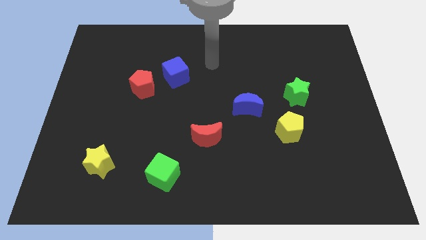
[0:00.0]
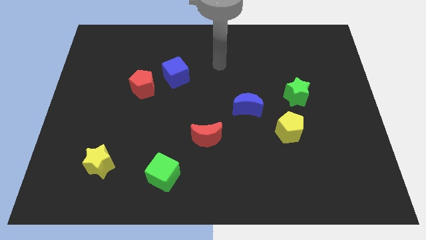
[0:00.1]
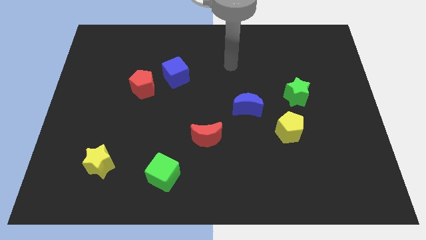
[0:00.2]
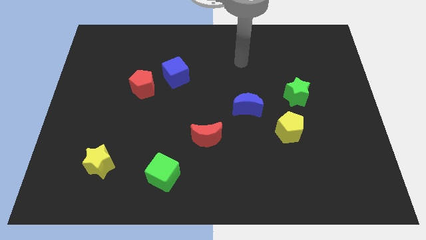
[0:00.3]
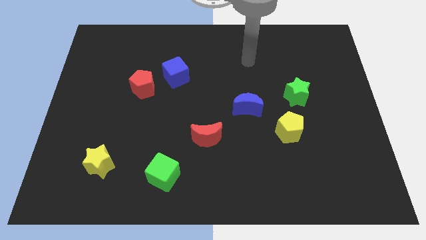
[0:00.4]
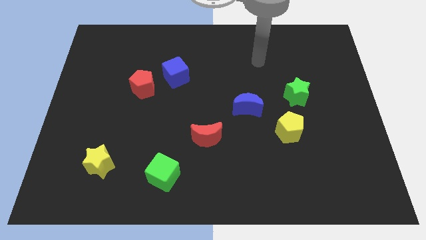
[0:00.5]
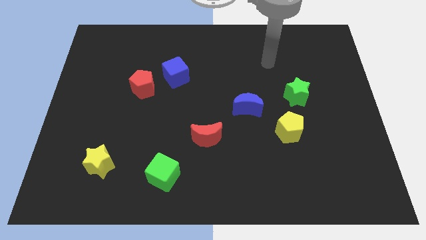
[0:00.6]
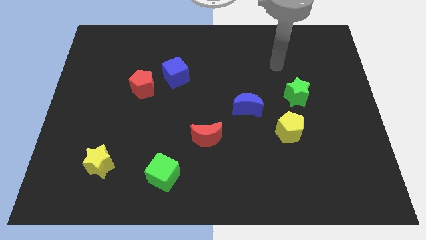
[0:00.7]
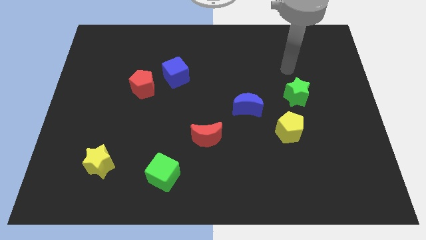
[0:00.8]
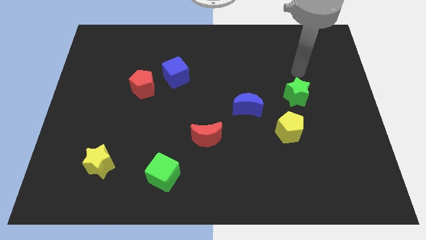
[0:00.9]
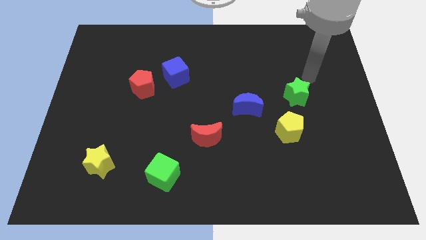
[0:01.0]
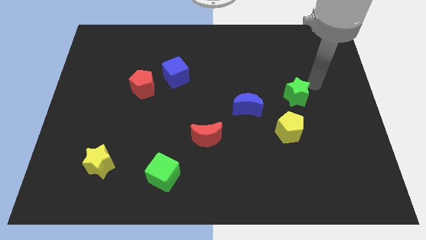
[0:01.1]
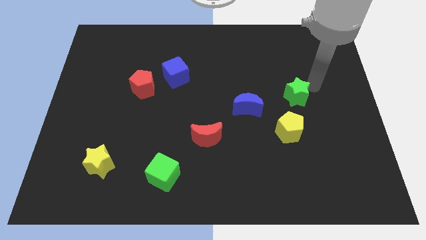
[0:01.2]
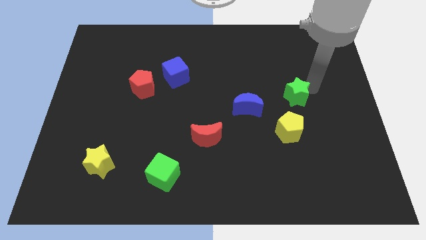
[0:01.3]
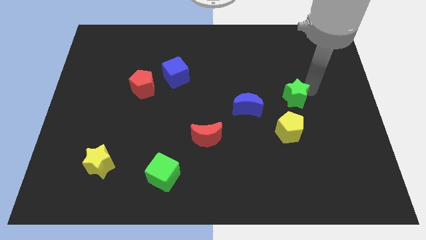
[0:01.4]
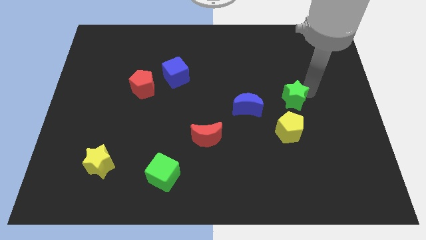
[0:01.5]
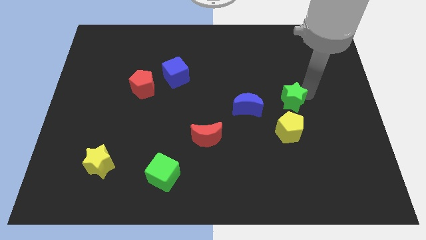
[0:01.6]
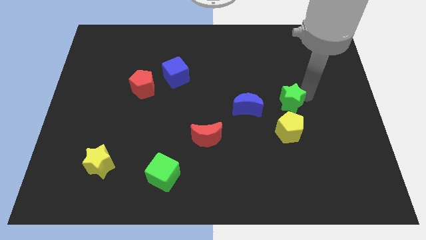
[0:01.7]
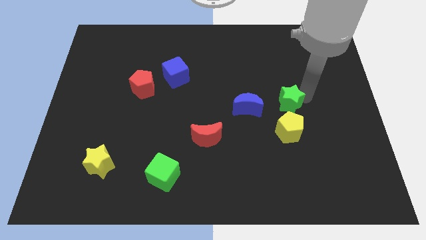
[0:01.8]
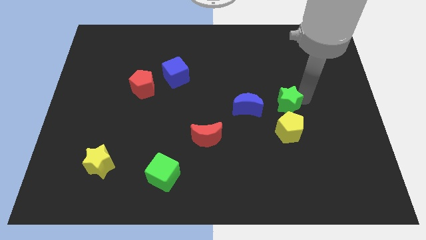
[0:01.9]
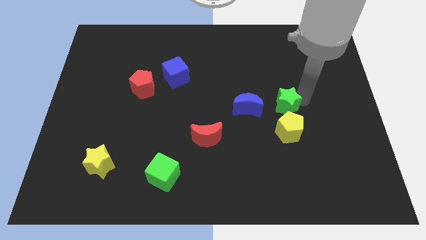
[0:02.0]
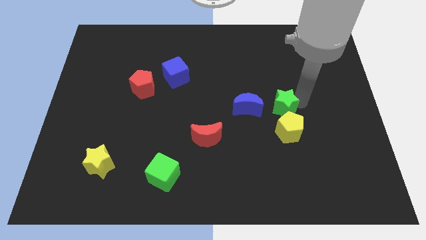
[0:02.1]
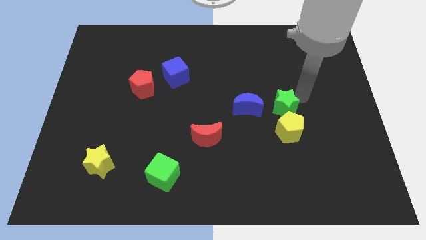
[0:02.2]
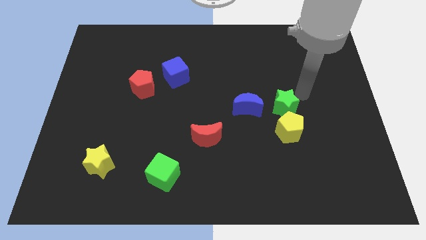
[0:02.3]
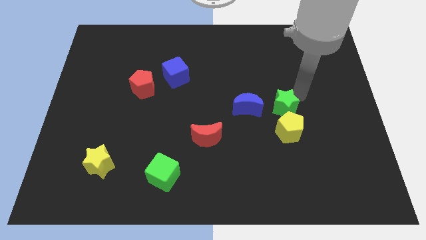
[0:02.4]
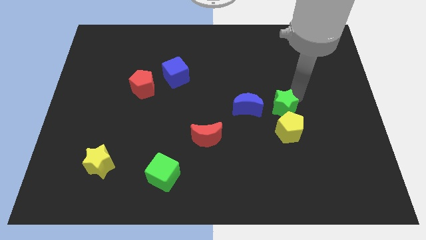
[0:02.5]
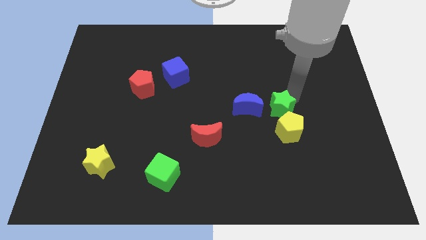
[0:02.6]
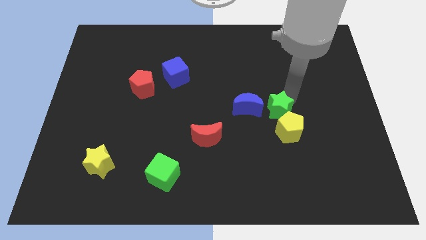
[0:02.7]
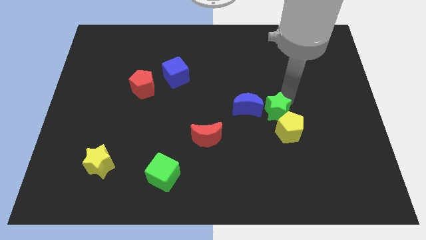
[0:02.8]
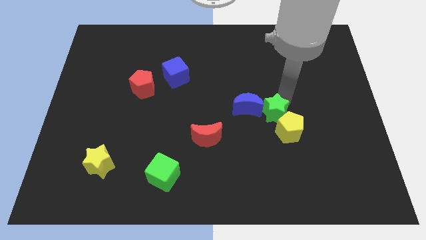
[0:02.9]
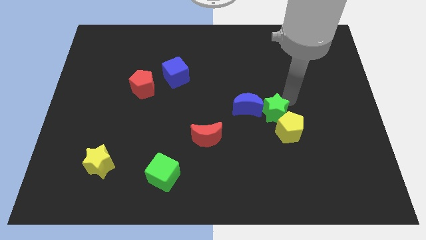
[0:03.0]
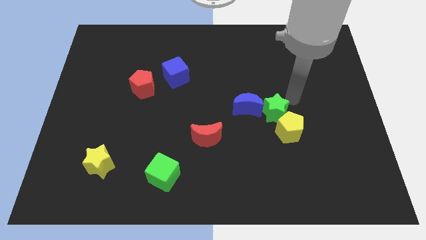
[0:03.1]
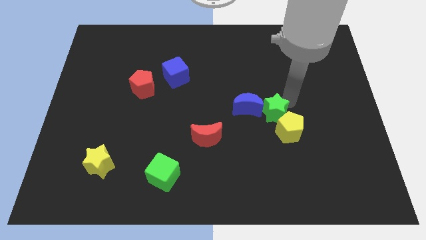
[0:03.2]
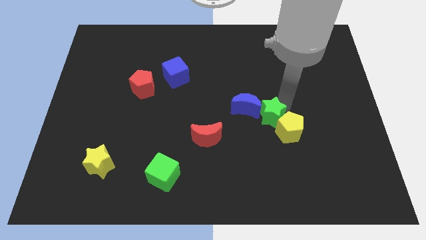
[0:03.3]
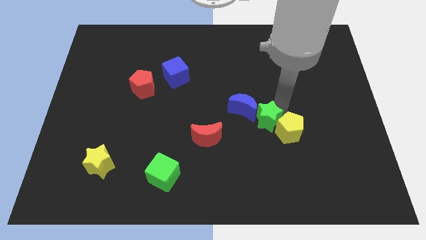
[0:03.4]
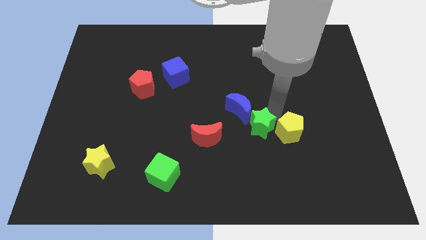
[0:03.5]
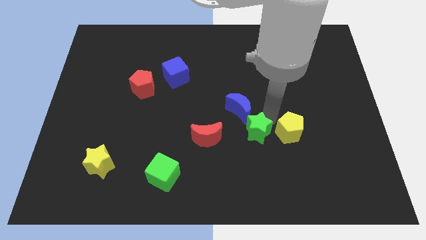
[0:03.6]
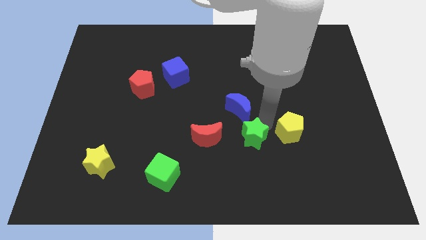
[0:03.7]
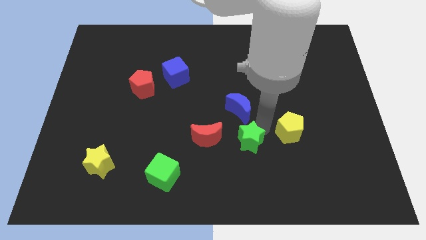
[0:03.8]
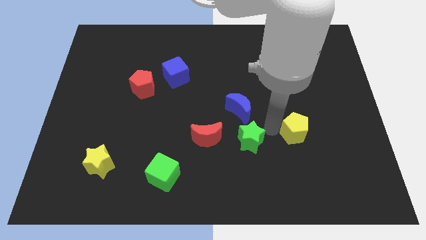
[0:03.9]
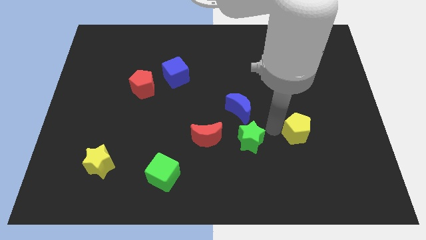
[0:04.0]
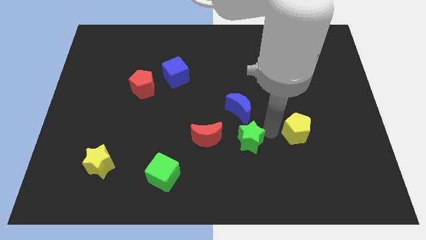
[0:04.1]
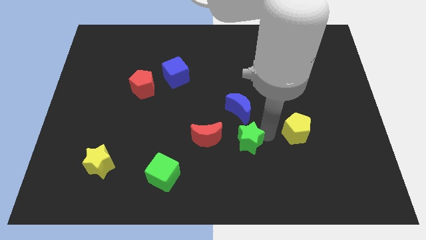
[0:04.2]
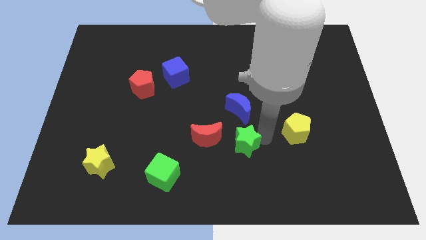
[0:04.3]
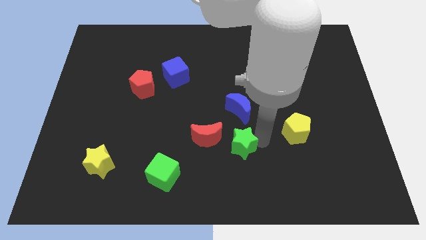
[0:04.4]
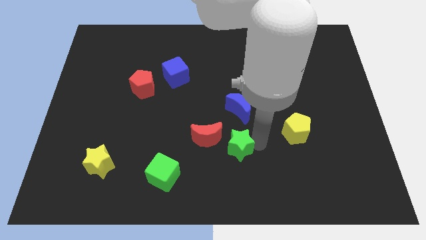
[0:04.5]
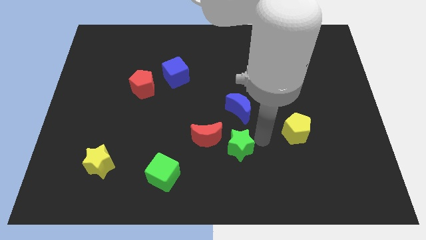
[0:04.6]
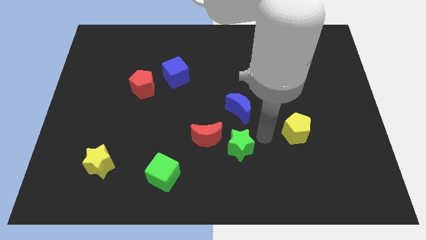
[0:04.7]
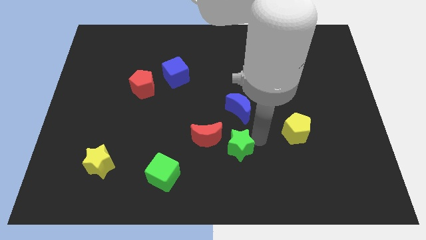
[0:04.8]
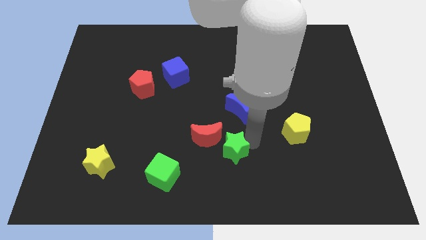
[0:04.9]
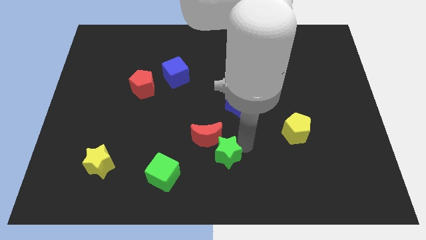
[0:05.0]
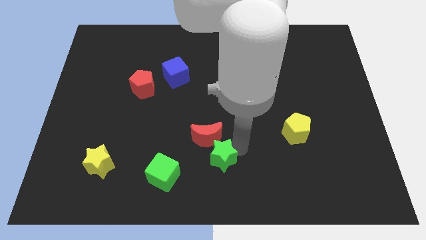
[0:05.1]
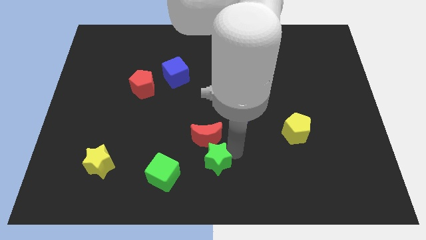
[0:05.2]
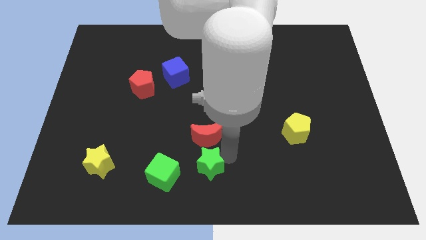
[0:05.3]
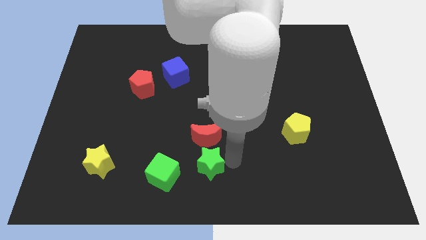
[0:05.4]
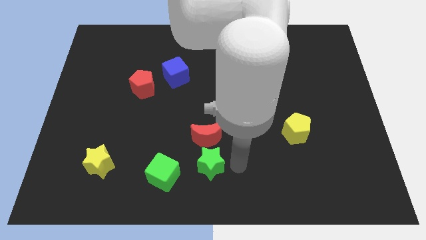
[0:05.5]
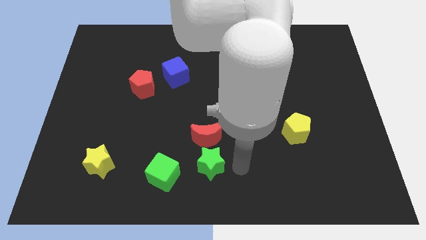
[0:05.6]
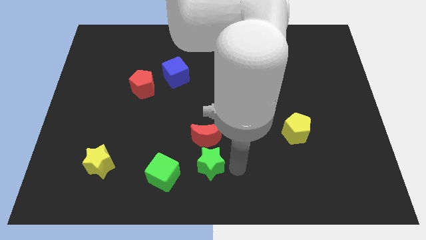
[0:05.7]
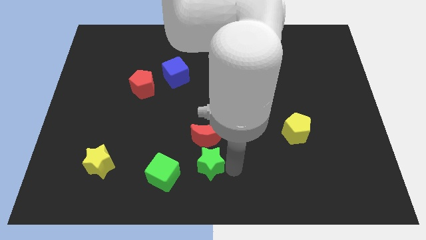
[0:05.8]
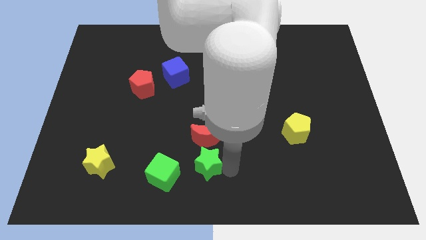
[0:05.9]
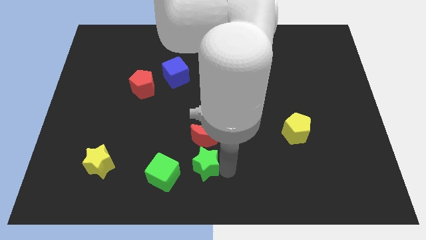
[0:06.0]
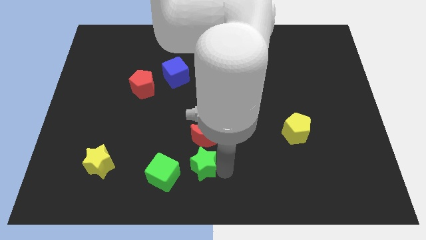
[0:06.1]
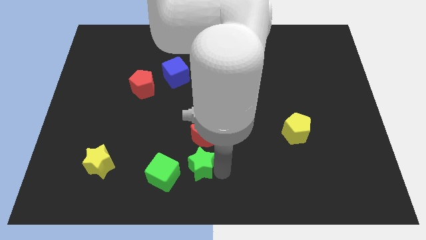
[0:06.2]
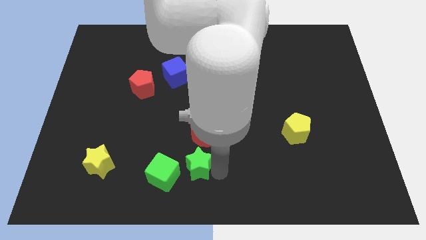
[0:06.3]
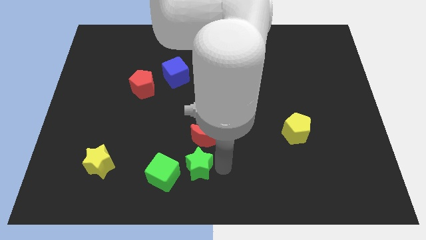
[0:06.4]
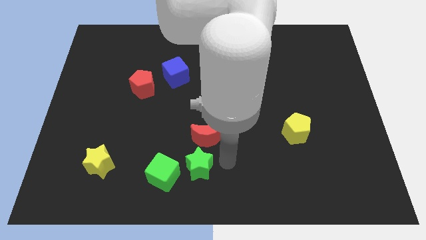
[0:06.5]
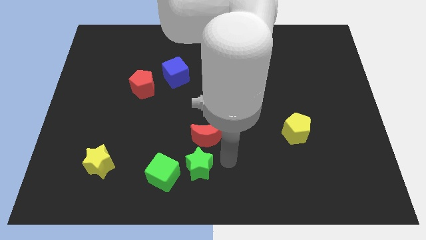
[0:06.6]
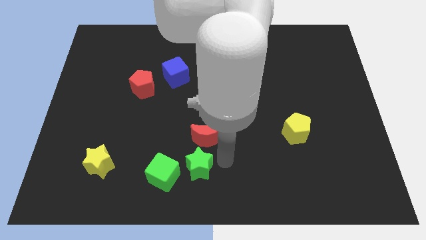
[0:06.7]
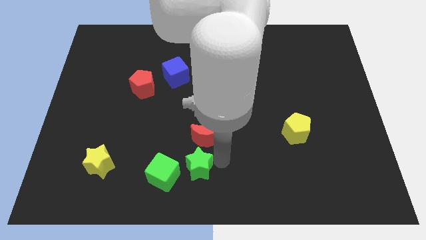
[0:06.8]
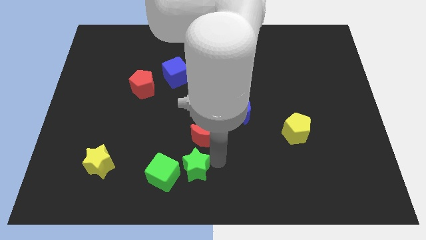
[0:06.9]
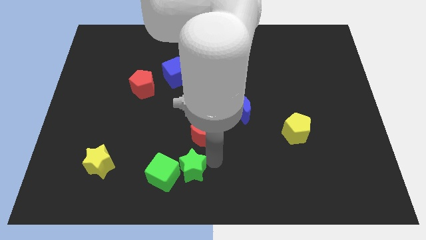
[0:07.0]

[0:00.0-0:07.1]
slide the green star close to the green cube
